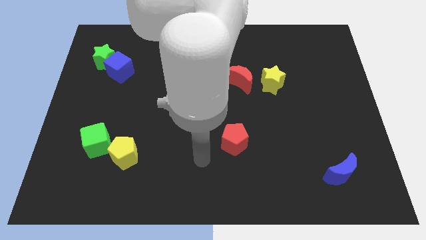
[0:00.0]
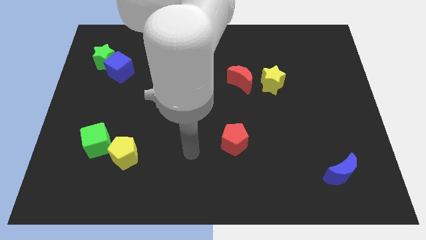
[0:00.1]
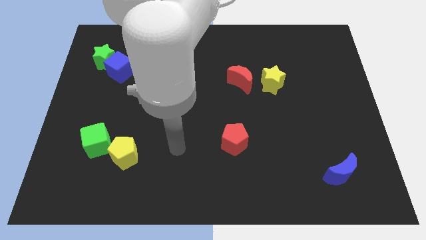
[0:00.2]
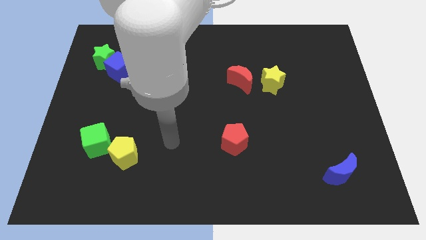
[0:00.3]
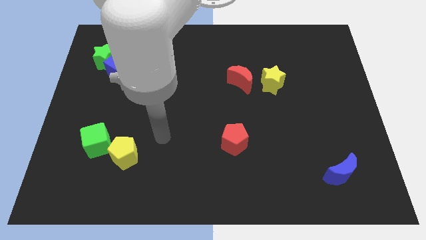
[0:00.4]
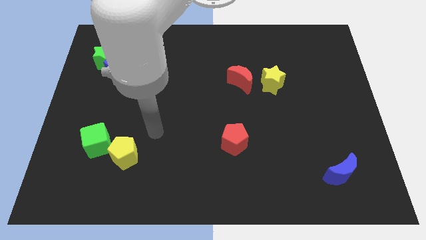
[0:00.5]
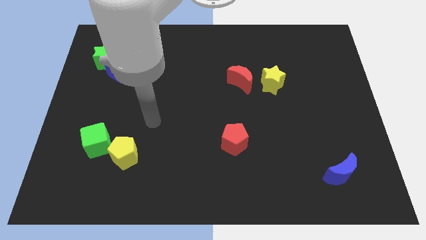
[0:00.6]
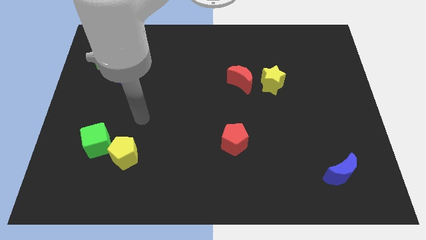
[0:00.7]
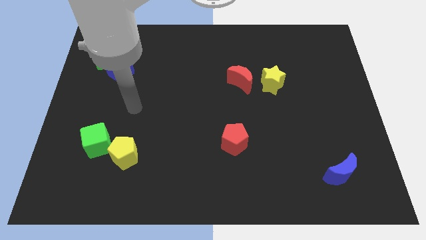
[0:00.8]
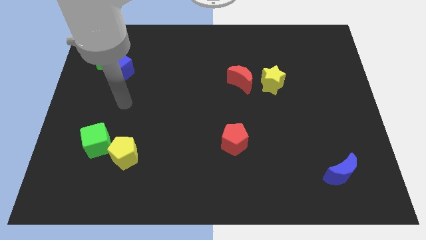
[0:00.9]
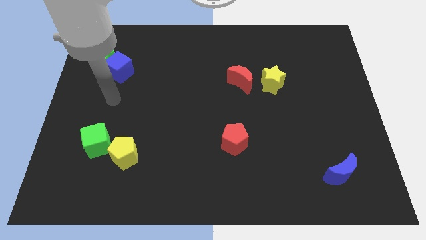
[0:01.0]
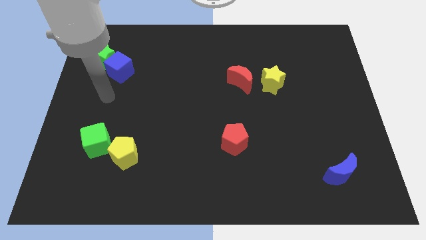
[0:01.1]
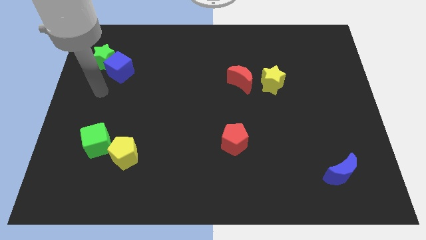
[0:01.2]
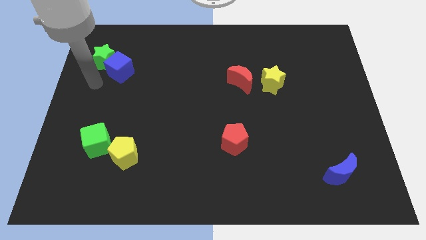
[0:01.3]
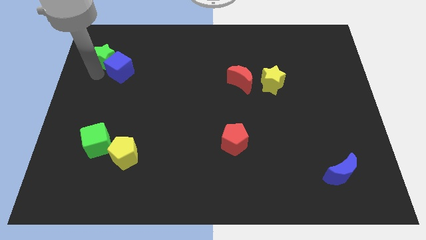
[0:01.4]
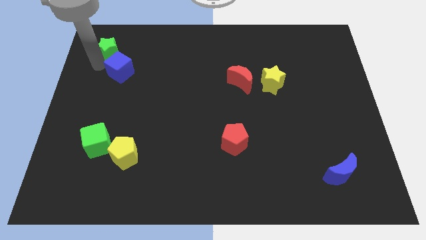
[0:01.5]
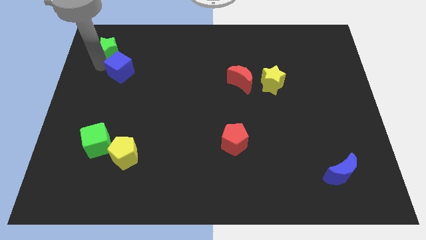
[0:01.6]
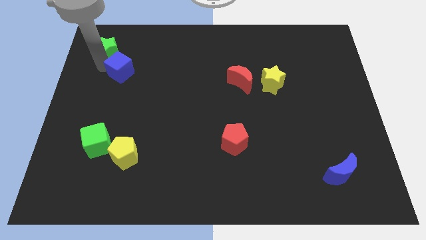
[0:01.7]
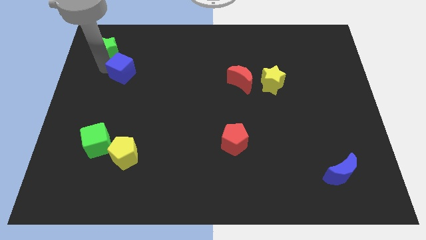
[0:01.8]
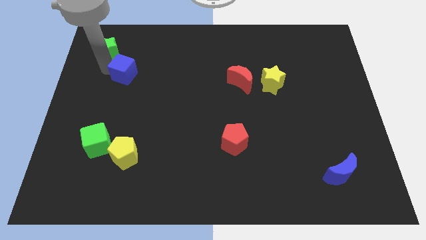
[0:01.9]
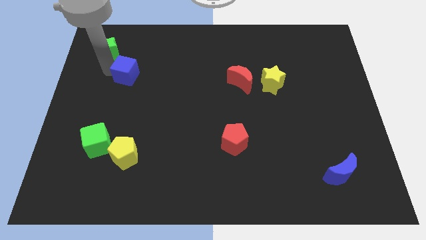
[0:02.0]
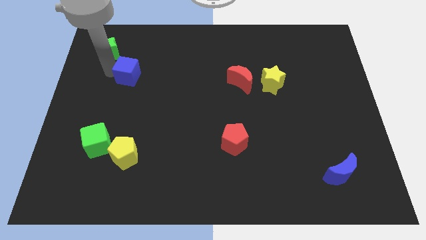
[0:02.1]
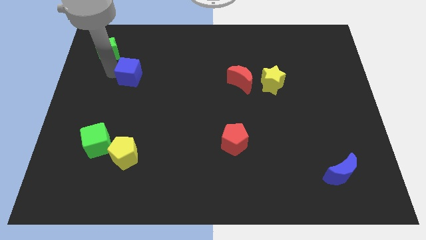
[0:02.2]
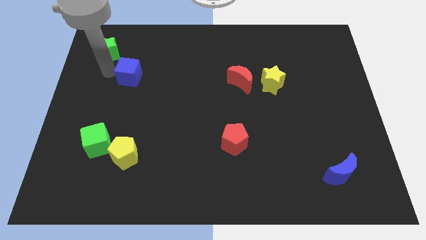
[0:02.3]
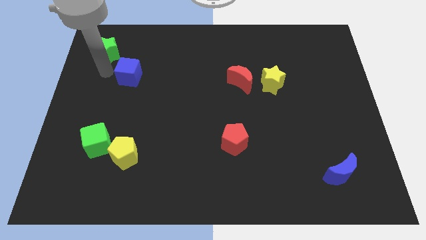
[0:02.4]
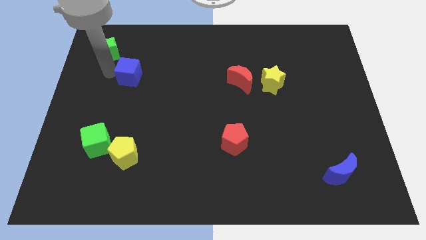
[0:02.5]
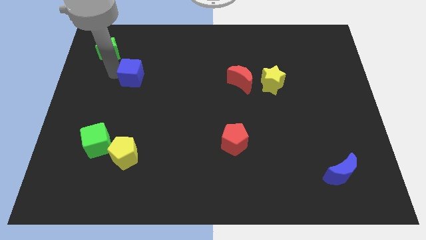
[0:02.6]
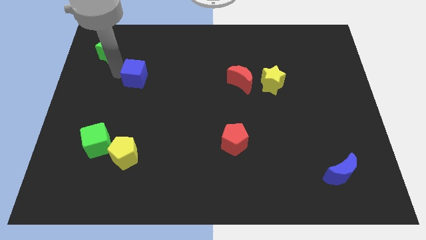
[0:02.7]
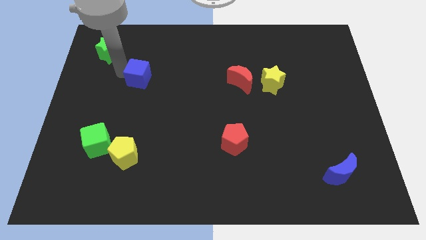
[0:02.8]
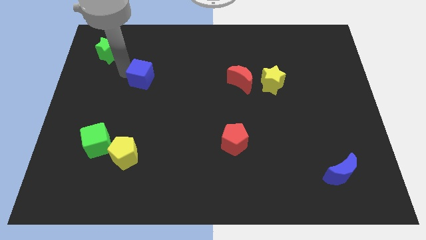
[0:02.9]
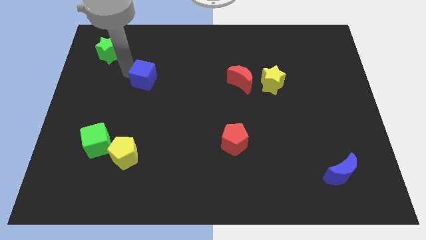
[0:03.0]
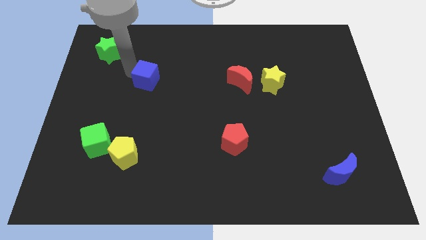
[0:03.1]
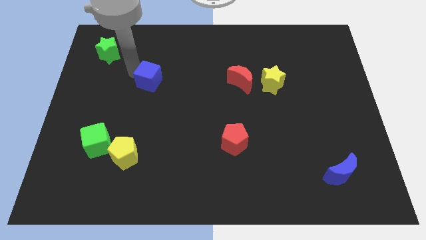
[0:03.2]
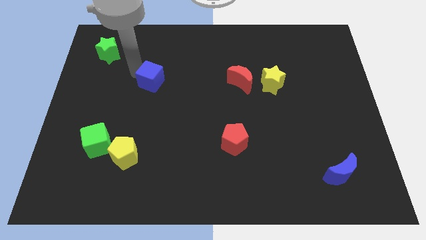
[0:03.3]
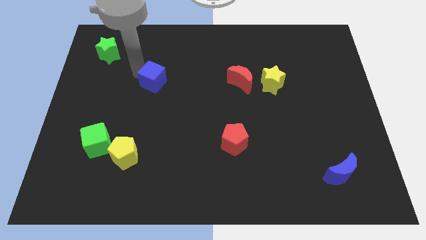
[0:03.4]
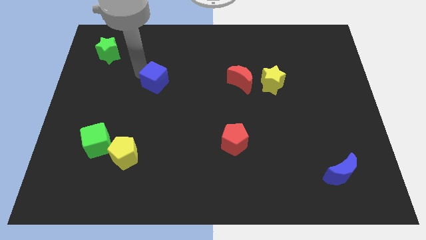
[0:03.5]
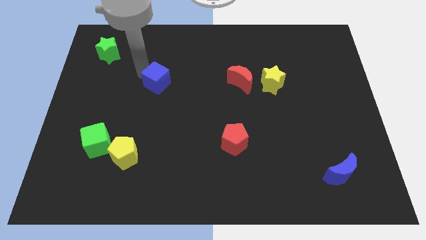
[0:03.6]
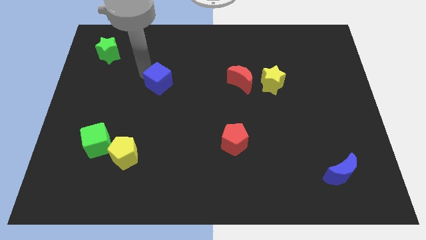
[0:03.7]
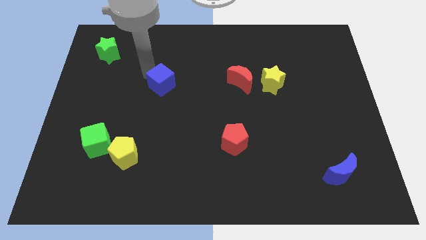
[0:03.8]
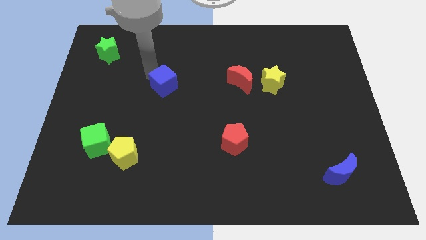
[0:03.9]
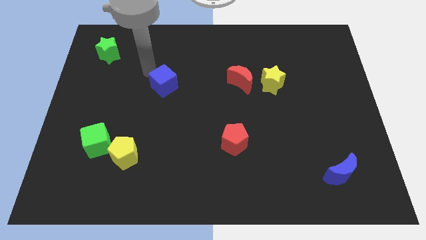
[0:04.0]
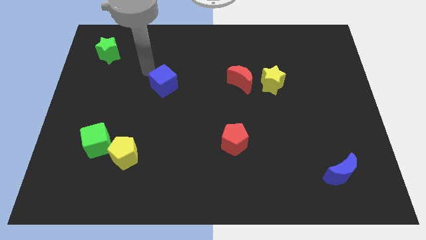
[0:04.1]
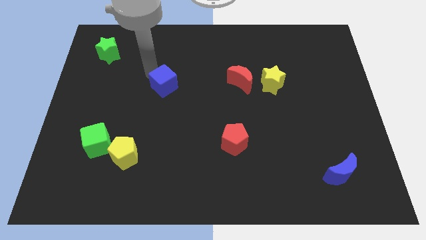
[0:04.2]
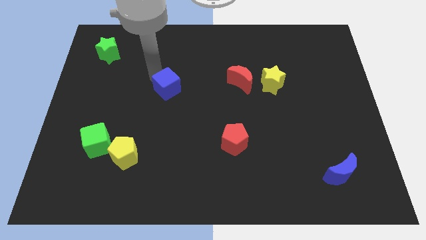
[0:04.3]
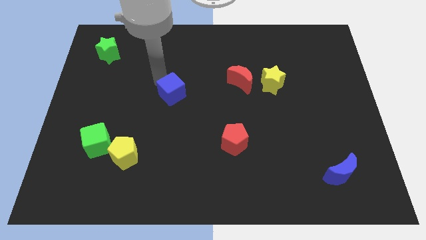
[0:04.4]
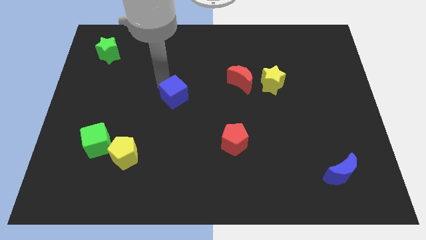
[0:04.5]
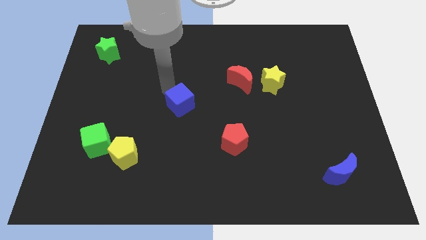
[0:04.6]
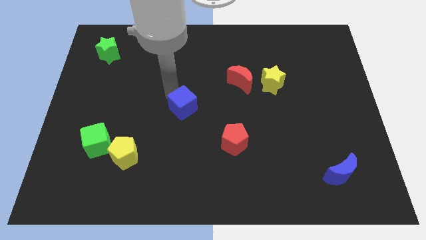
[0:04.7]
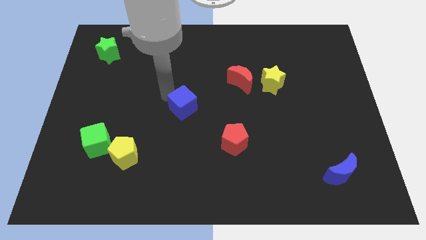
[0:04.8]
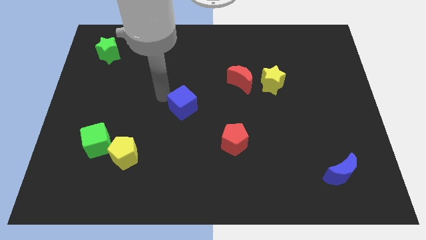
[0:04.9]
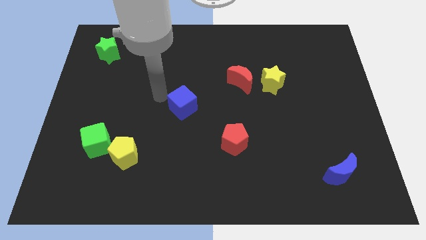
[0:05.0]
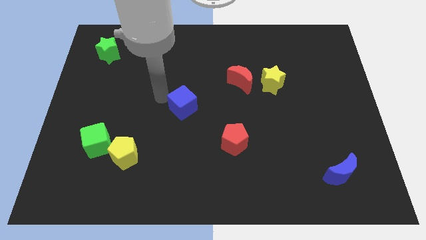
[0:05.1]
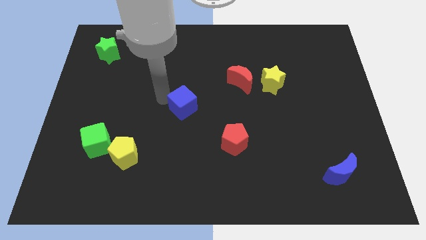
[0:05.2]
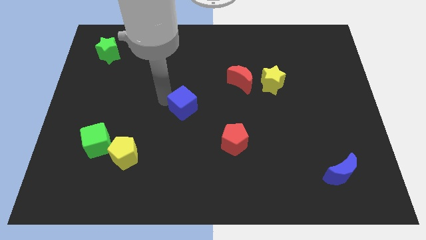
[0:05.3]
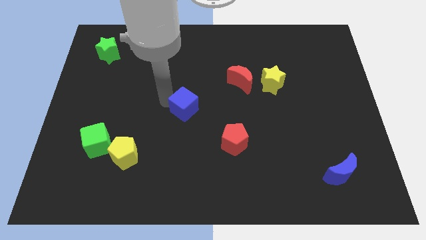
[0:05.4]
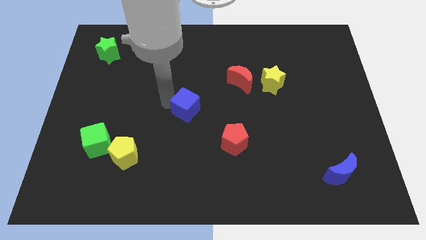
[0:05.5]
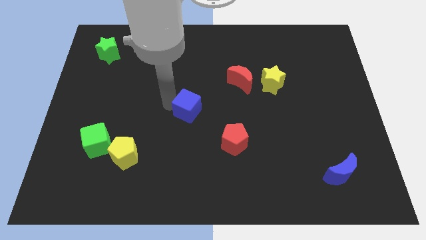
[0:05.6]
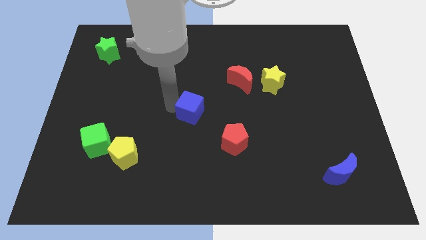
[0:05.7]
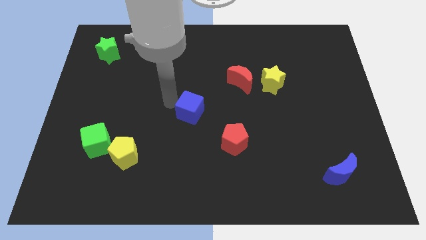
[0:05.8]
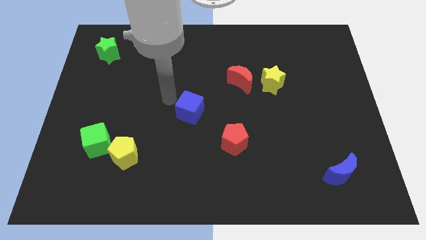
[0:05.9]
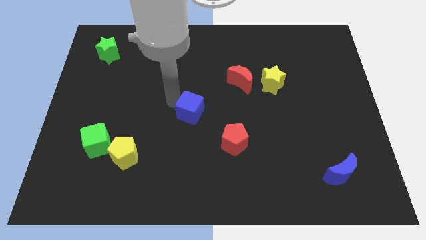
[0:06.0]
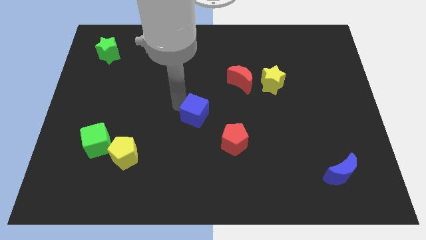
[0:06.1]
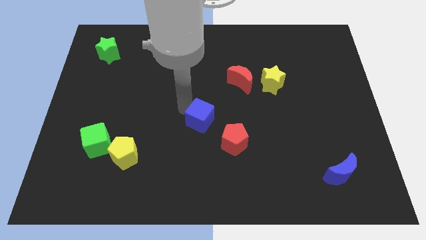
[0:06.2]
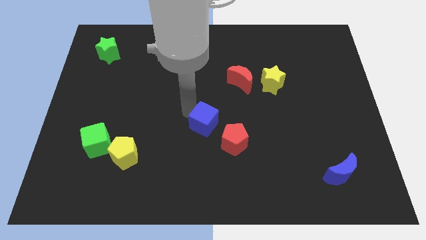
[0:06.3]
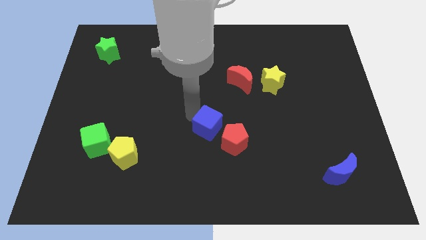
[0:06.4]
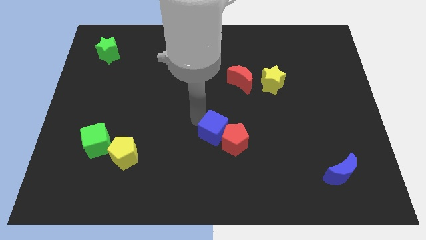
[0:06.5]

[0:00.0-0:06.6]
push the blue cube close to the red pentagon

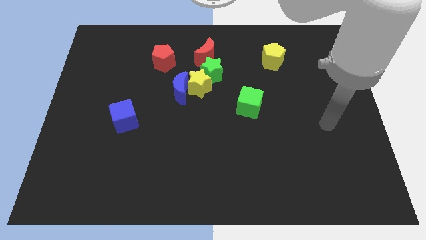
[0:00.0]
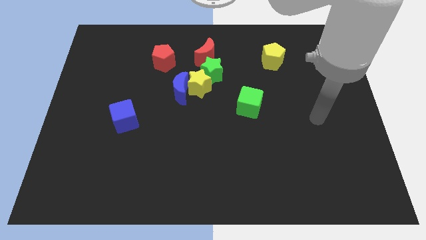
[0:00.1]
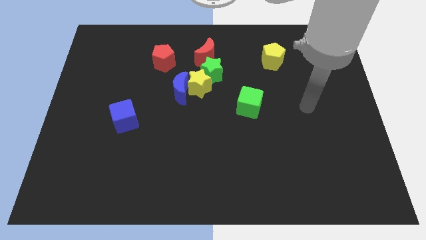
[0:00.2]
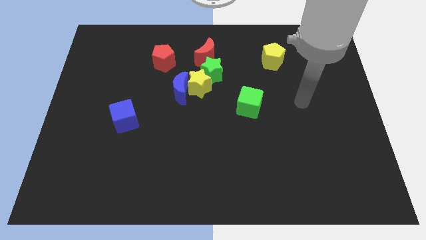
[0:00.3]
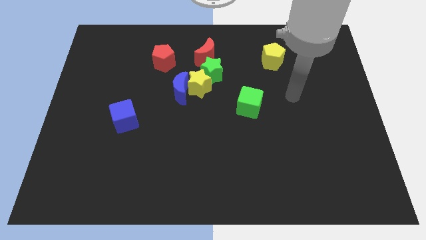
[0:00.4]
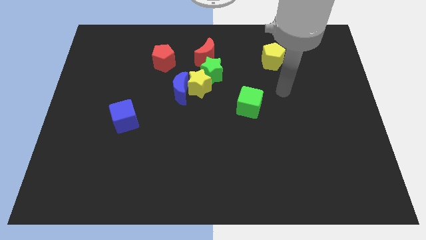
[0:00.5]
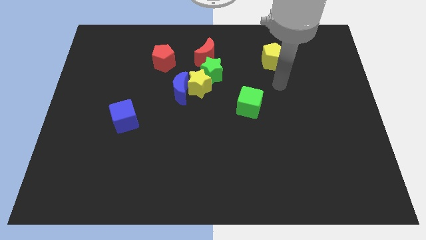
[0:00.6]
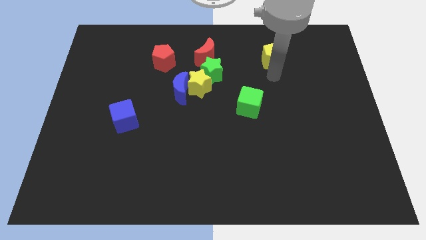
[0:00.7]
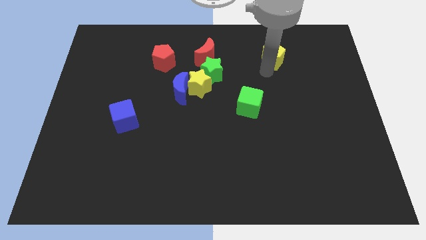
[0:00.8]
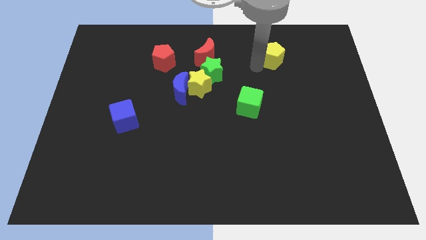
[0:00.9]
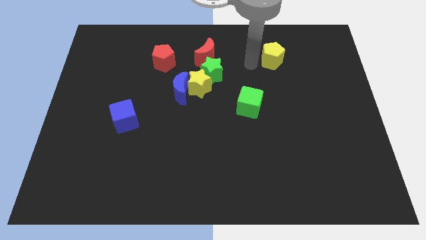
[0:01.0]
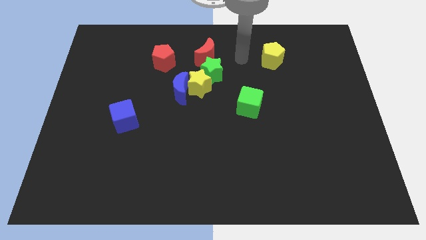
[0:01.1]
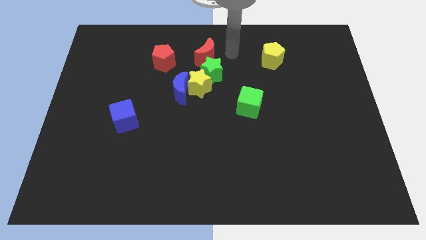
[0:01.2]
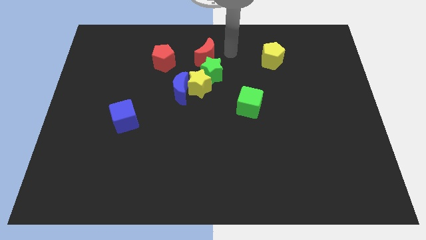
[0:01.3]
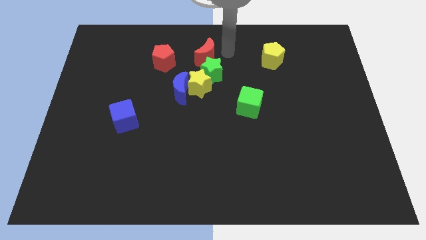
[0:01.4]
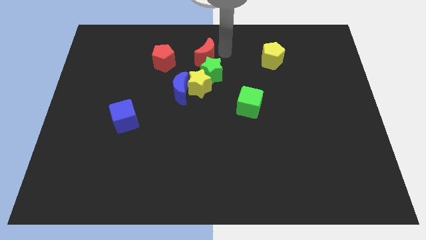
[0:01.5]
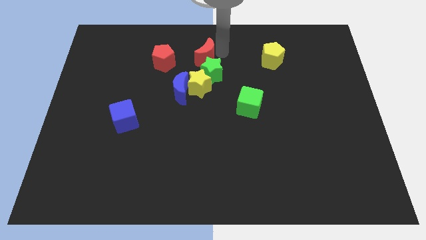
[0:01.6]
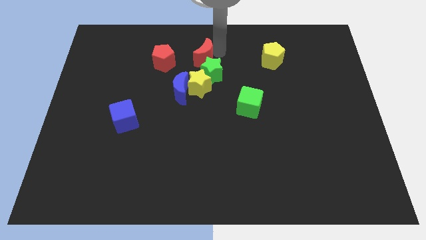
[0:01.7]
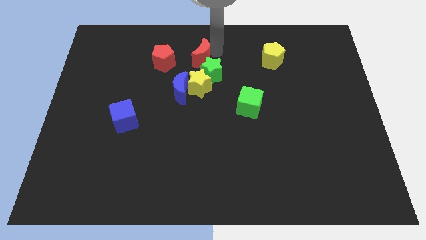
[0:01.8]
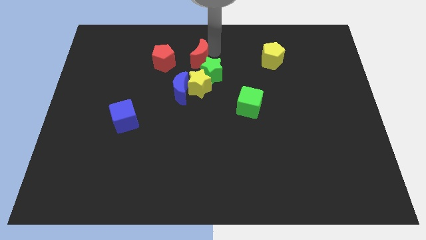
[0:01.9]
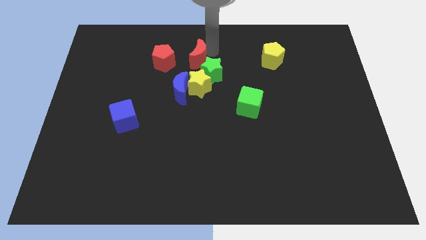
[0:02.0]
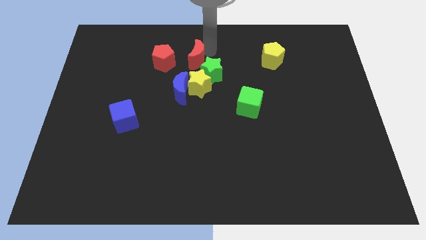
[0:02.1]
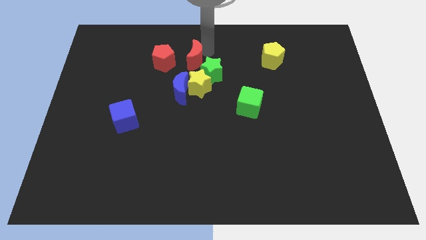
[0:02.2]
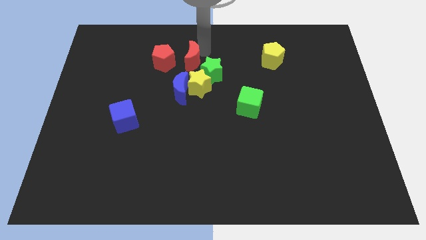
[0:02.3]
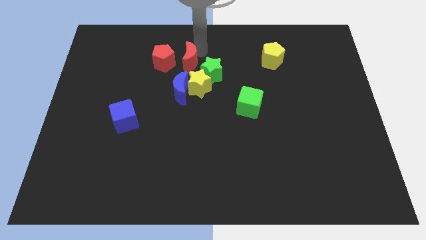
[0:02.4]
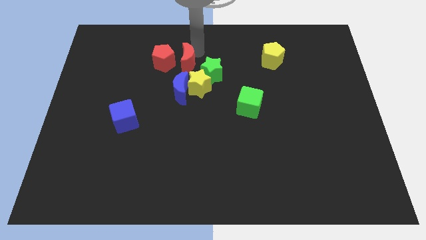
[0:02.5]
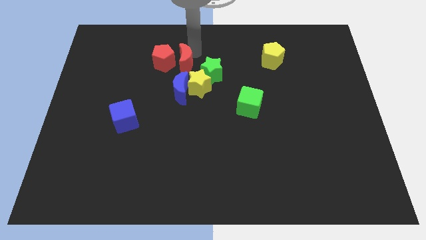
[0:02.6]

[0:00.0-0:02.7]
put the red moon towards the red pentagon
